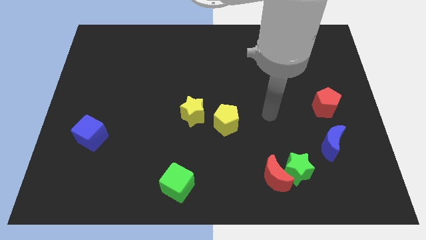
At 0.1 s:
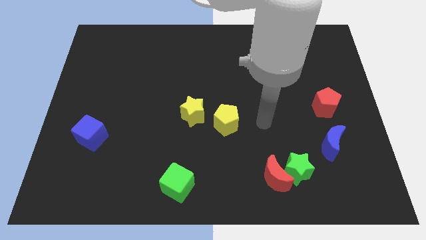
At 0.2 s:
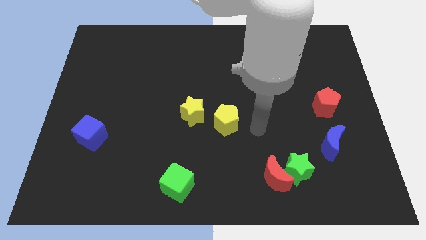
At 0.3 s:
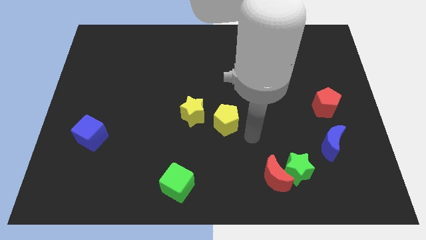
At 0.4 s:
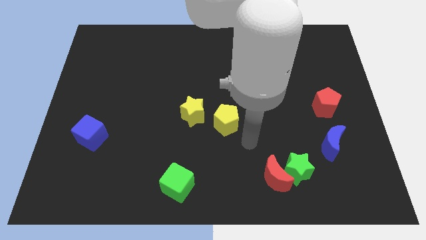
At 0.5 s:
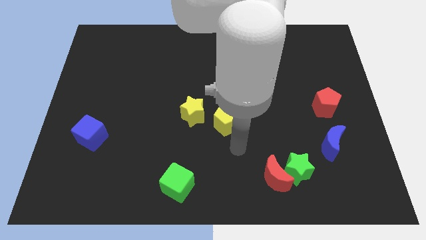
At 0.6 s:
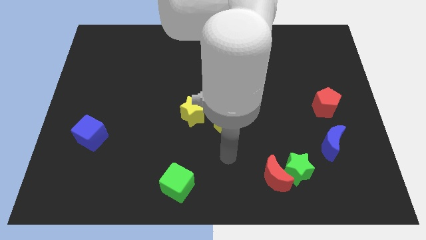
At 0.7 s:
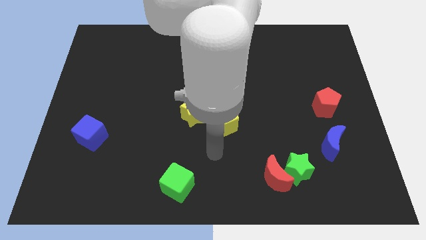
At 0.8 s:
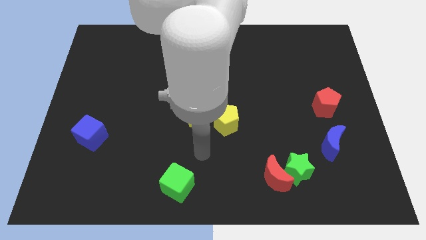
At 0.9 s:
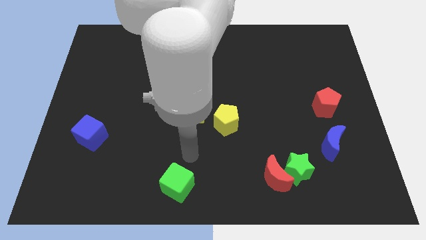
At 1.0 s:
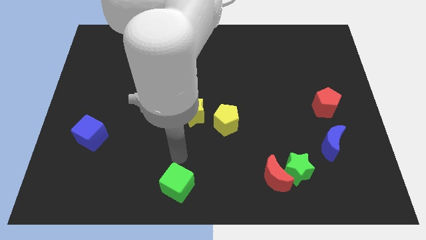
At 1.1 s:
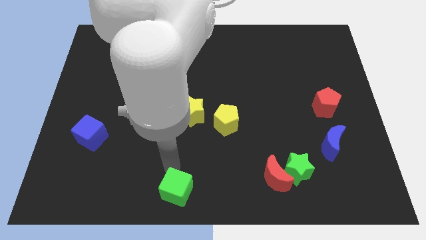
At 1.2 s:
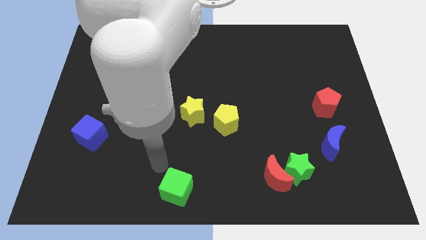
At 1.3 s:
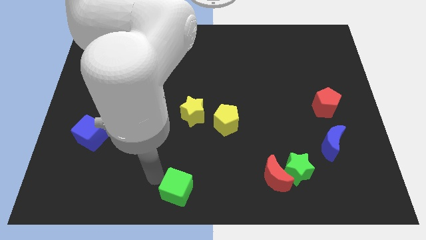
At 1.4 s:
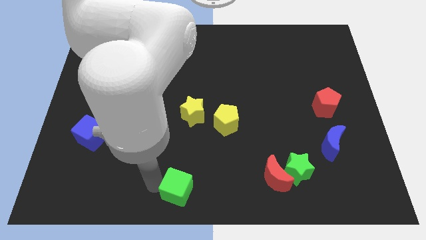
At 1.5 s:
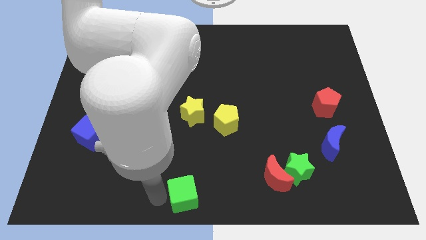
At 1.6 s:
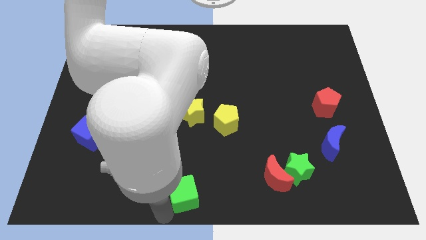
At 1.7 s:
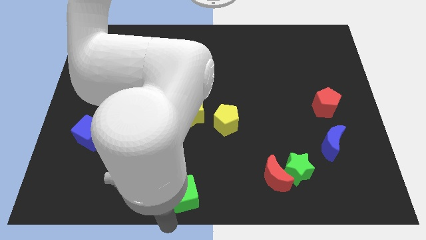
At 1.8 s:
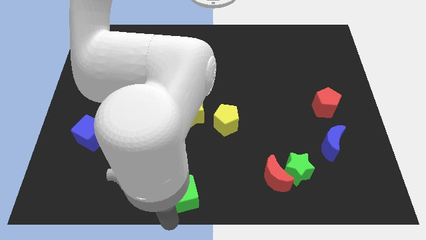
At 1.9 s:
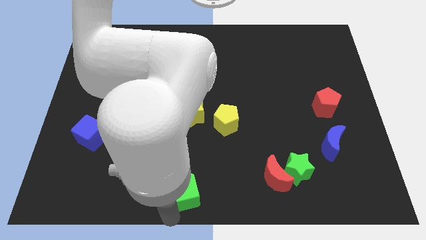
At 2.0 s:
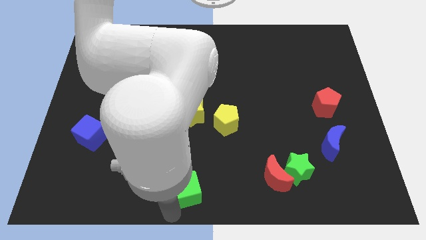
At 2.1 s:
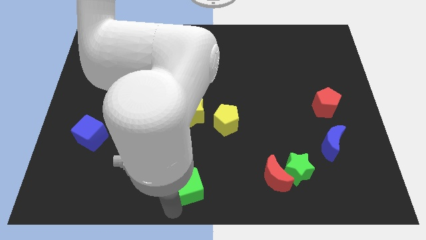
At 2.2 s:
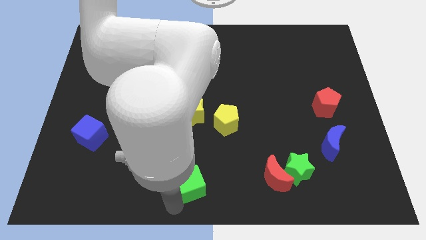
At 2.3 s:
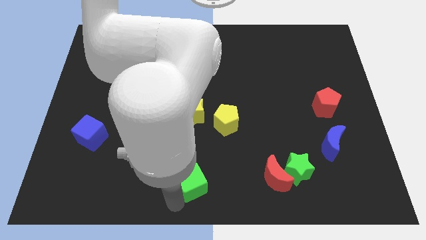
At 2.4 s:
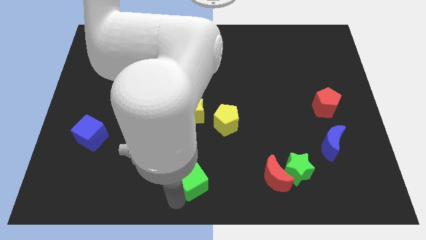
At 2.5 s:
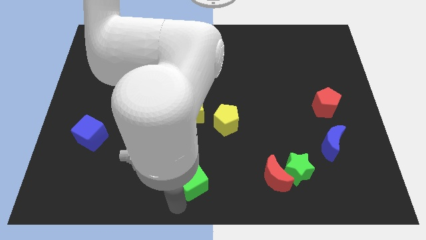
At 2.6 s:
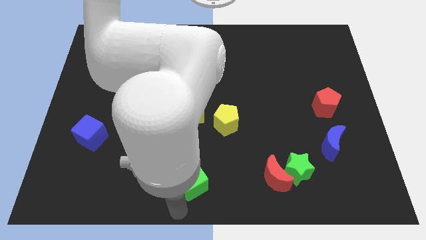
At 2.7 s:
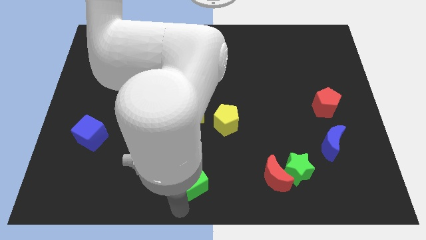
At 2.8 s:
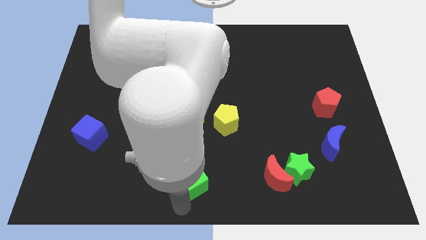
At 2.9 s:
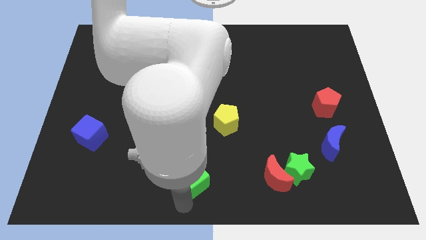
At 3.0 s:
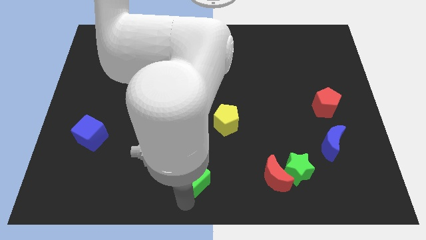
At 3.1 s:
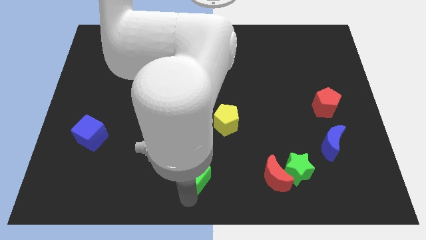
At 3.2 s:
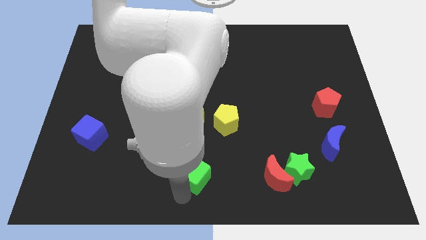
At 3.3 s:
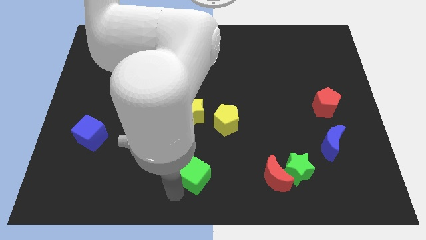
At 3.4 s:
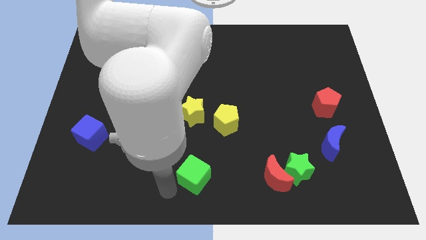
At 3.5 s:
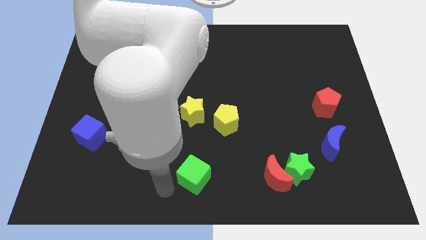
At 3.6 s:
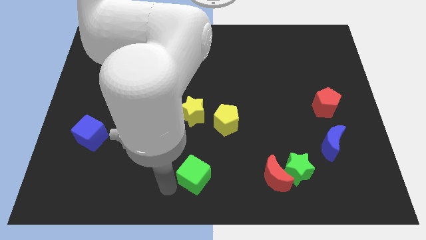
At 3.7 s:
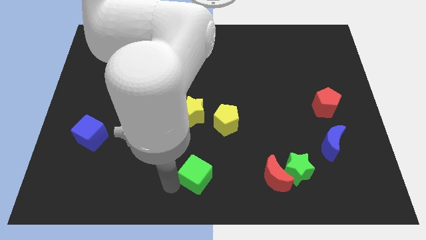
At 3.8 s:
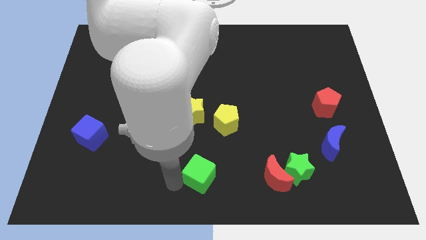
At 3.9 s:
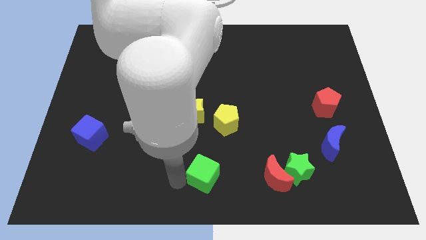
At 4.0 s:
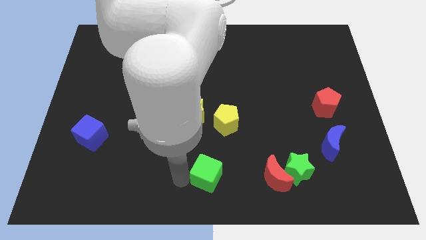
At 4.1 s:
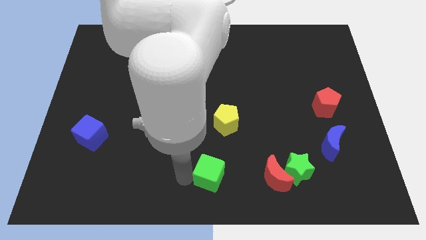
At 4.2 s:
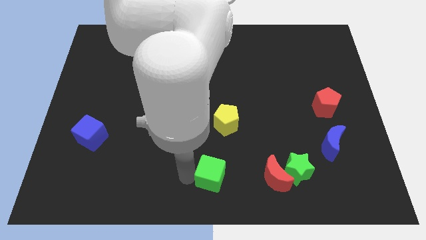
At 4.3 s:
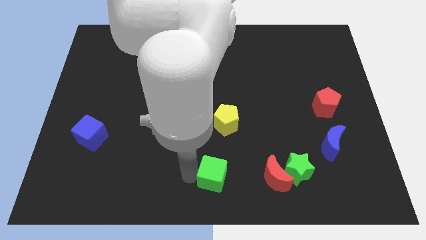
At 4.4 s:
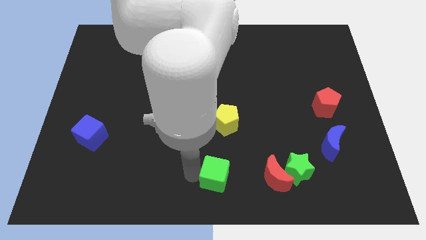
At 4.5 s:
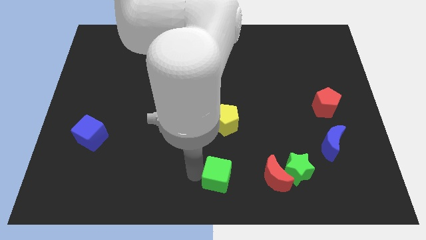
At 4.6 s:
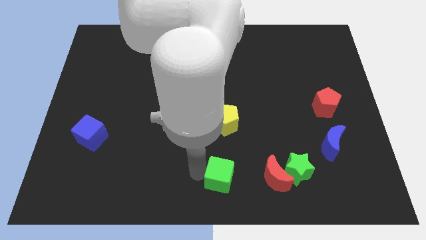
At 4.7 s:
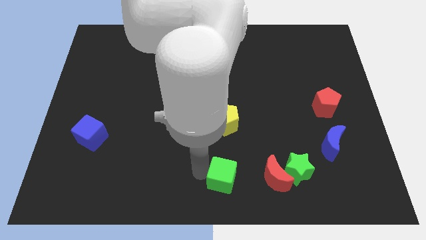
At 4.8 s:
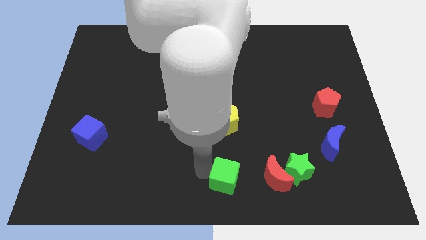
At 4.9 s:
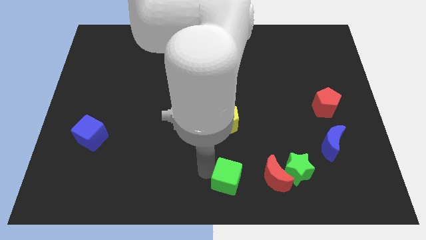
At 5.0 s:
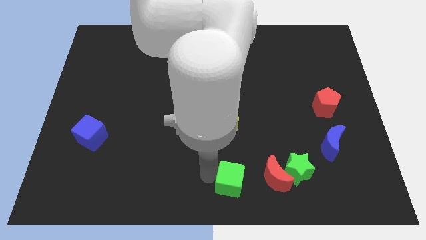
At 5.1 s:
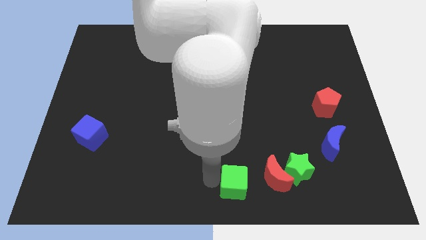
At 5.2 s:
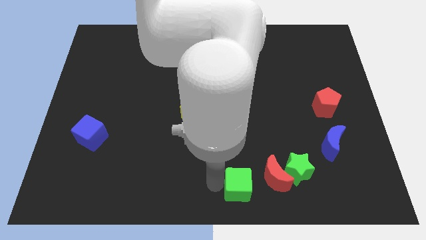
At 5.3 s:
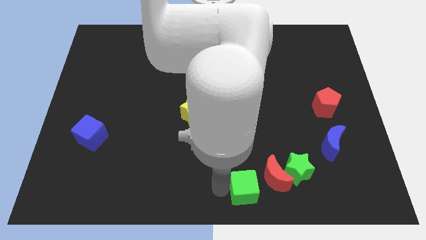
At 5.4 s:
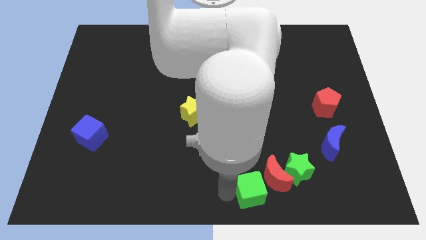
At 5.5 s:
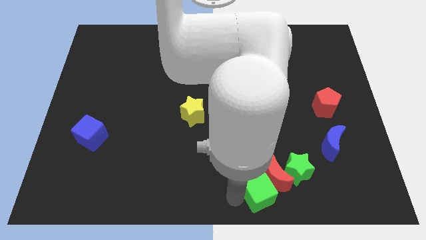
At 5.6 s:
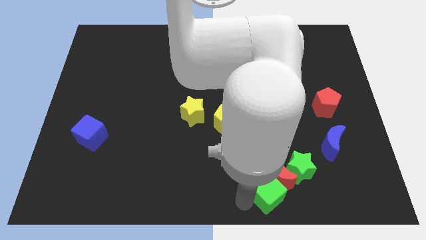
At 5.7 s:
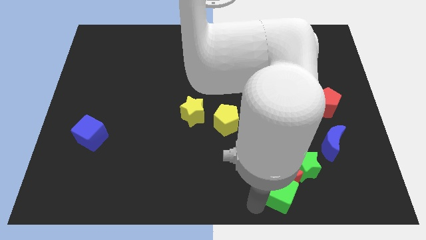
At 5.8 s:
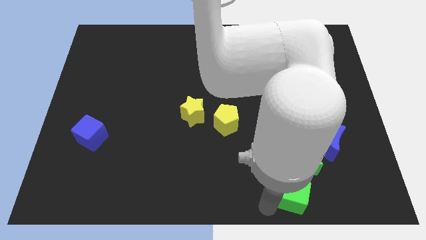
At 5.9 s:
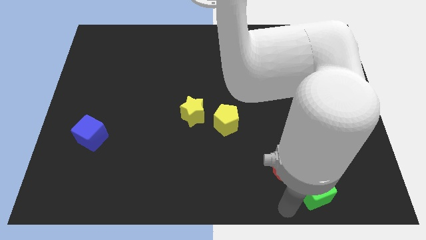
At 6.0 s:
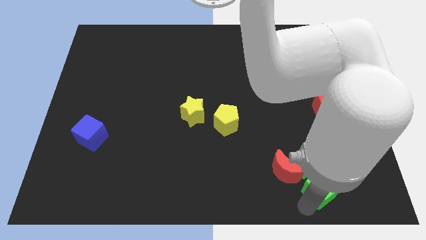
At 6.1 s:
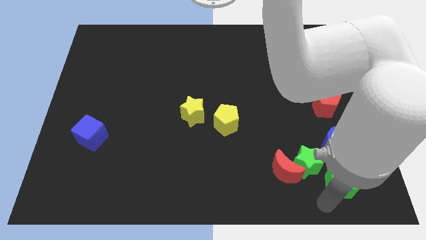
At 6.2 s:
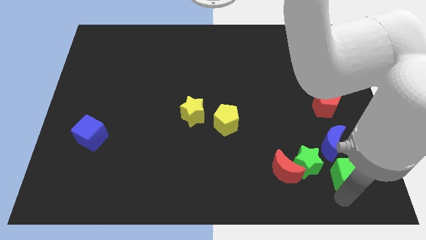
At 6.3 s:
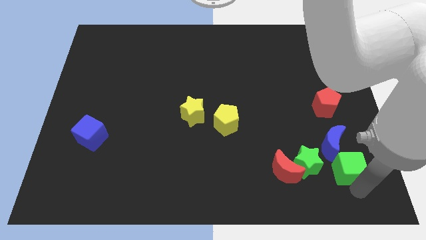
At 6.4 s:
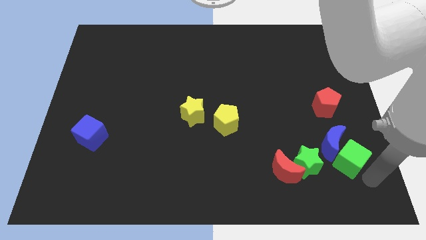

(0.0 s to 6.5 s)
slide the green cube below the red pentagon

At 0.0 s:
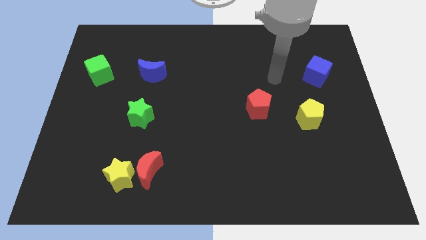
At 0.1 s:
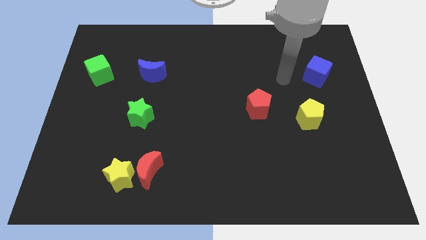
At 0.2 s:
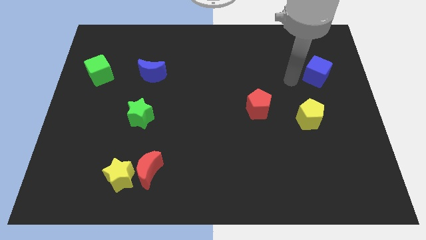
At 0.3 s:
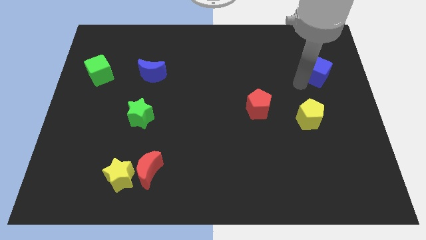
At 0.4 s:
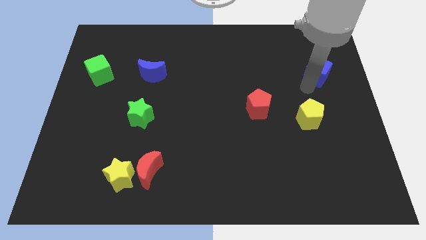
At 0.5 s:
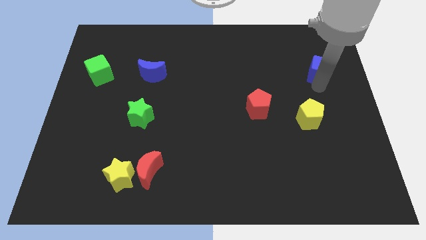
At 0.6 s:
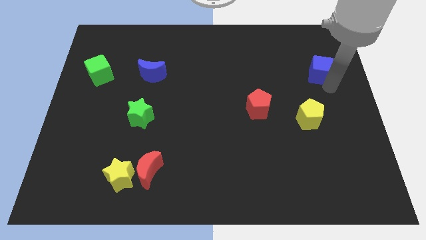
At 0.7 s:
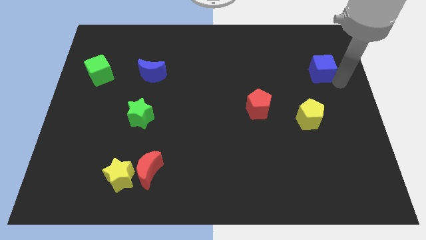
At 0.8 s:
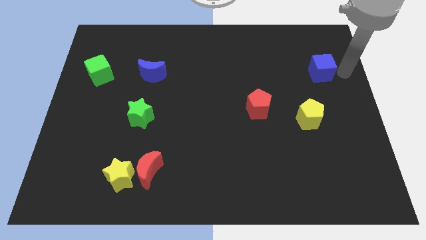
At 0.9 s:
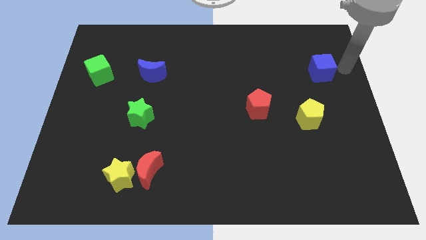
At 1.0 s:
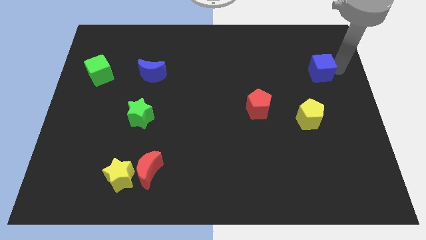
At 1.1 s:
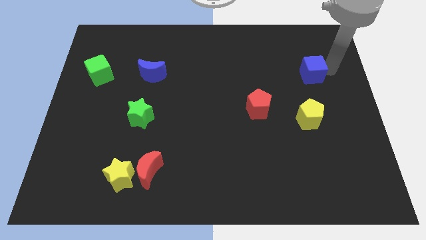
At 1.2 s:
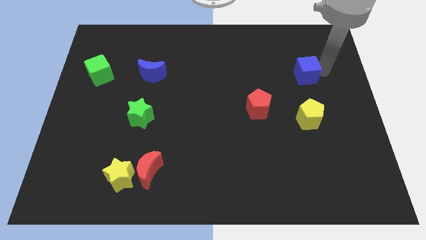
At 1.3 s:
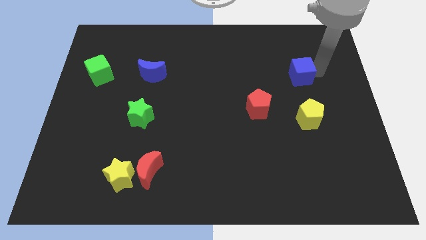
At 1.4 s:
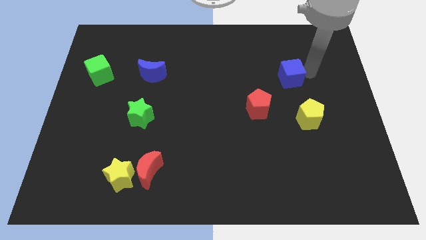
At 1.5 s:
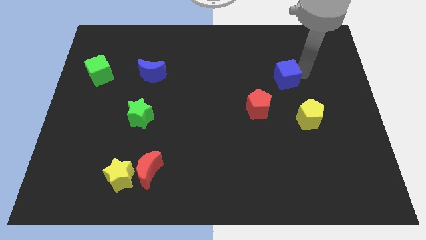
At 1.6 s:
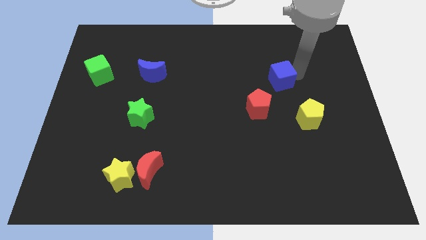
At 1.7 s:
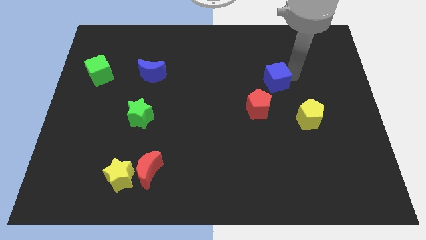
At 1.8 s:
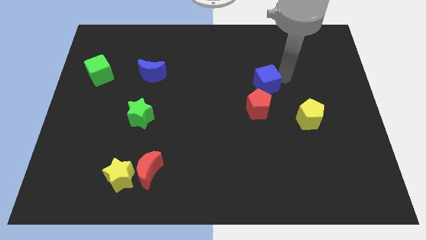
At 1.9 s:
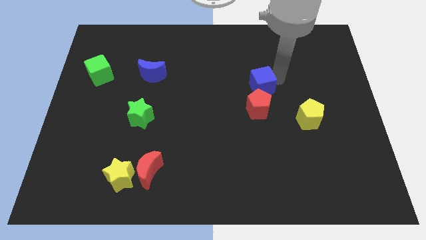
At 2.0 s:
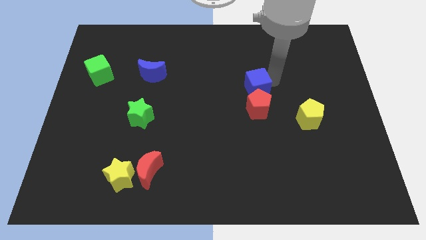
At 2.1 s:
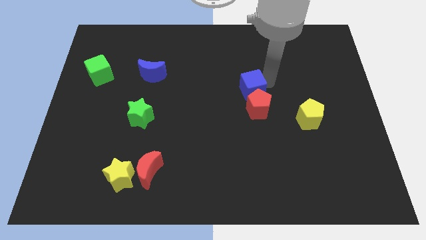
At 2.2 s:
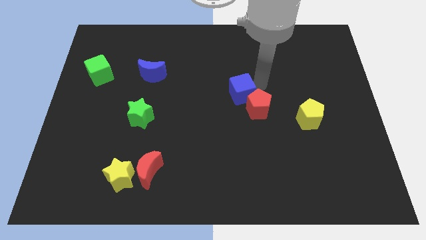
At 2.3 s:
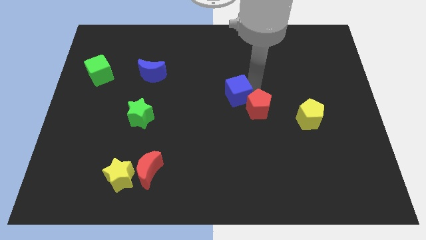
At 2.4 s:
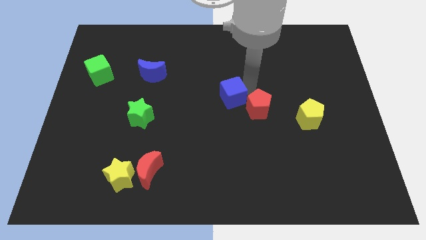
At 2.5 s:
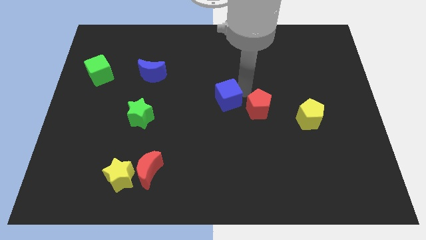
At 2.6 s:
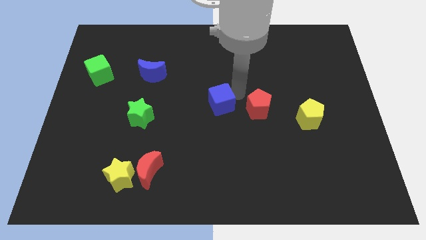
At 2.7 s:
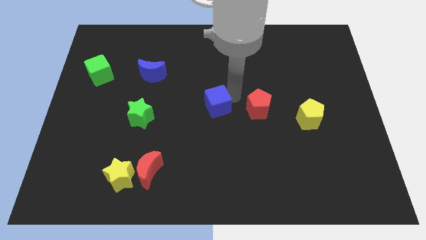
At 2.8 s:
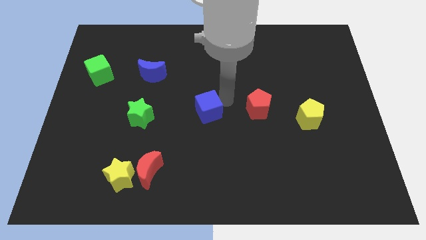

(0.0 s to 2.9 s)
put the blue cube to the right side of the green star
